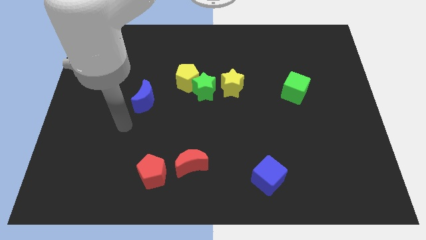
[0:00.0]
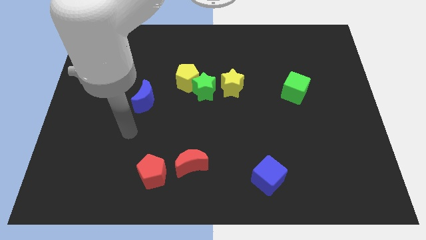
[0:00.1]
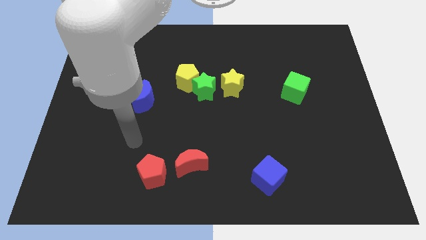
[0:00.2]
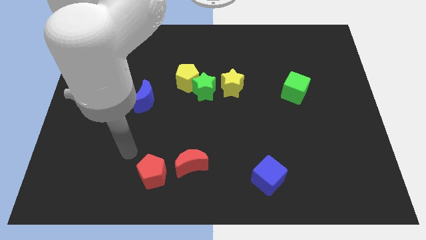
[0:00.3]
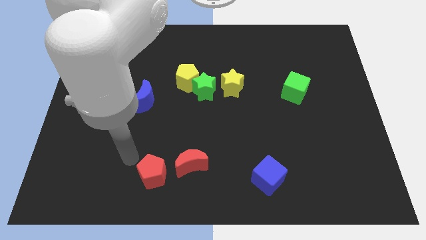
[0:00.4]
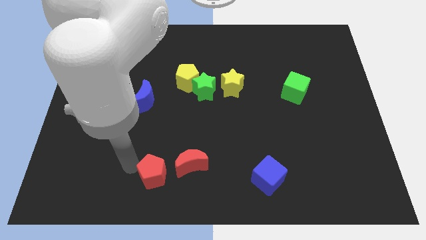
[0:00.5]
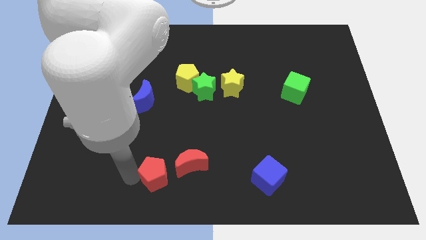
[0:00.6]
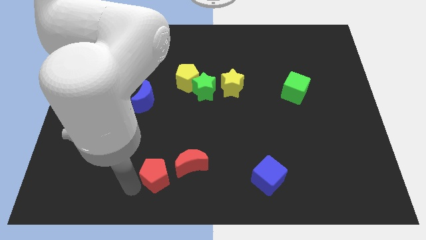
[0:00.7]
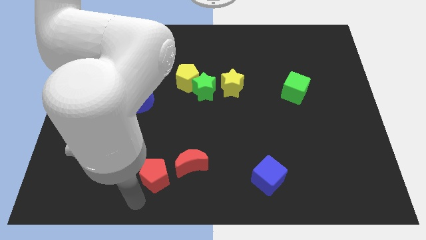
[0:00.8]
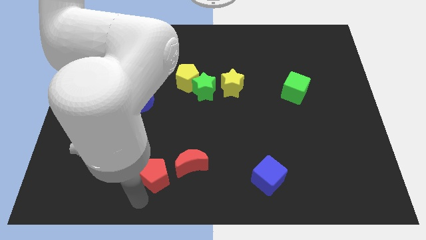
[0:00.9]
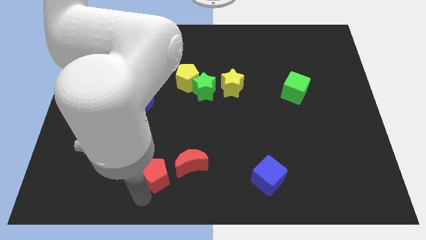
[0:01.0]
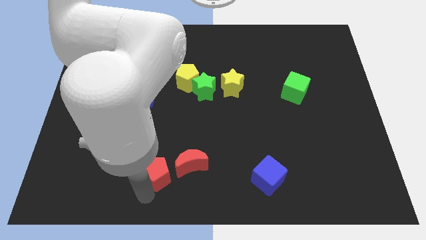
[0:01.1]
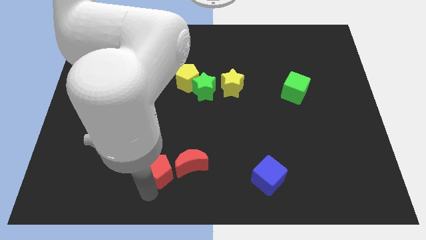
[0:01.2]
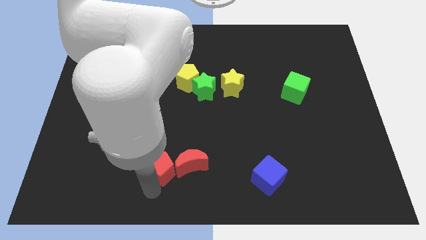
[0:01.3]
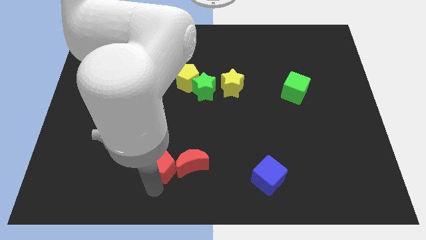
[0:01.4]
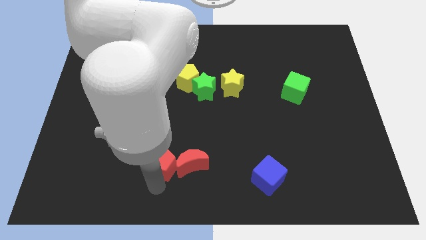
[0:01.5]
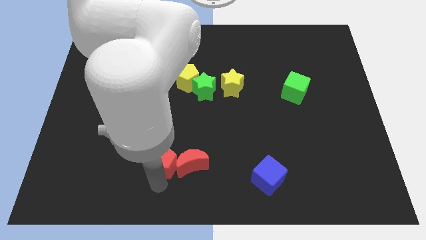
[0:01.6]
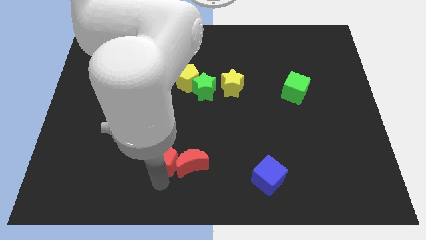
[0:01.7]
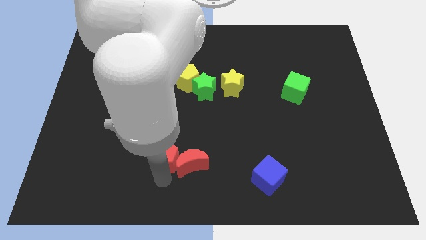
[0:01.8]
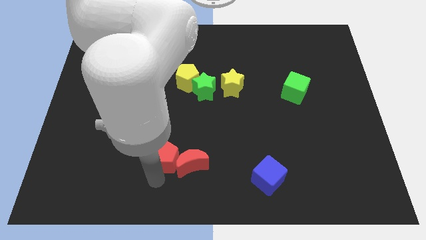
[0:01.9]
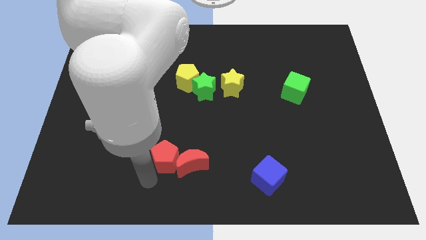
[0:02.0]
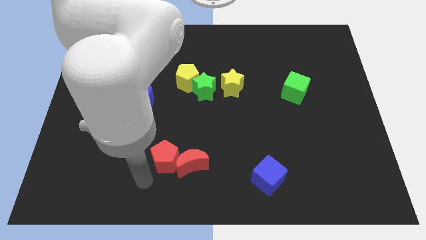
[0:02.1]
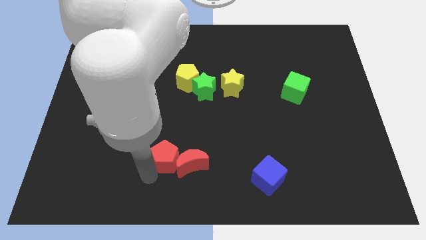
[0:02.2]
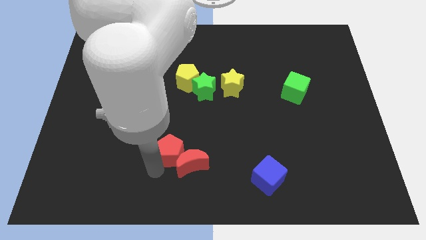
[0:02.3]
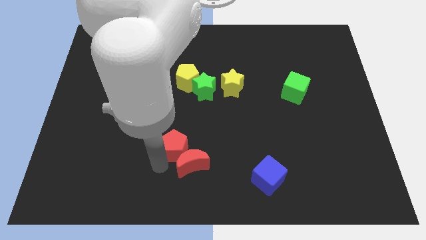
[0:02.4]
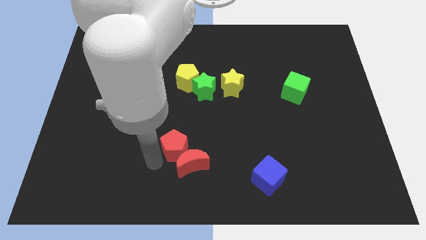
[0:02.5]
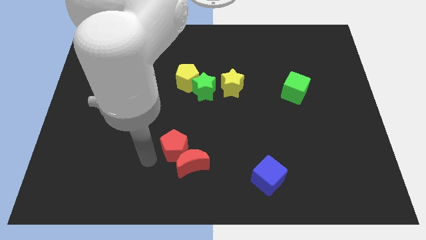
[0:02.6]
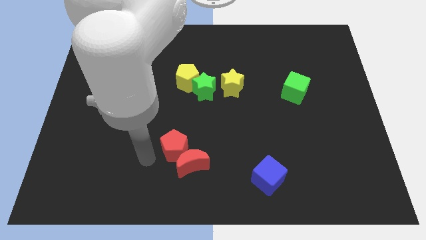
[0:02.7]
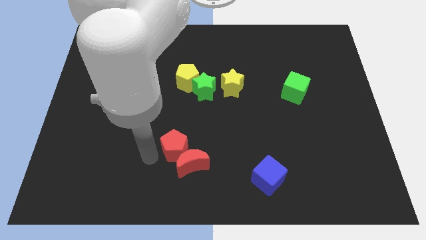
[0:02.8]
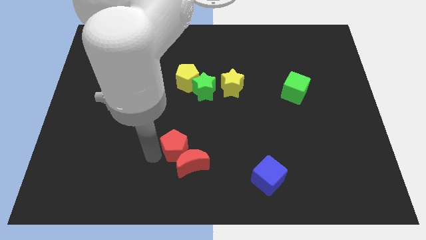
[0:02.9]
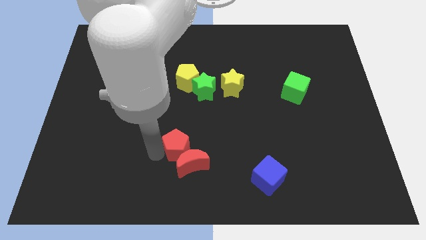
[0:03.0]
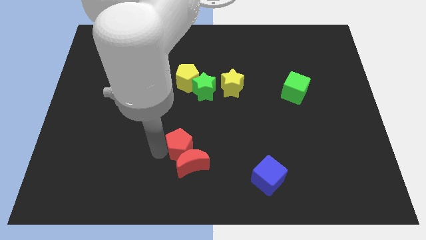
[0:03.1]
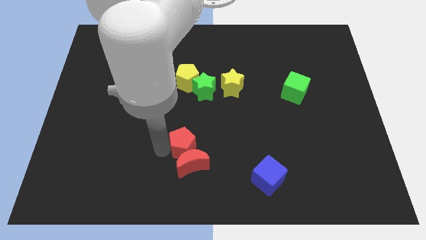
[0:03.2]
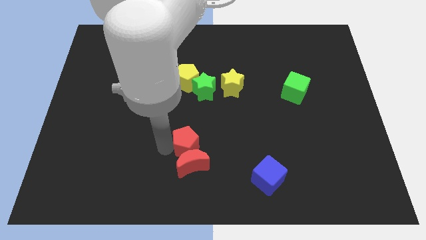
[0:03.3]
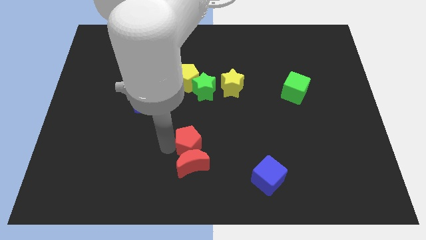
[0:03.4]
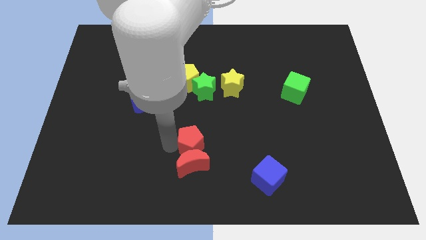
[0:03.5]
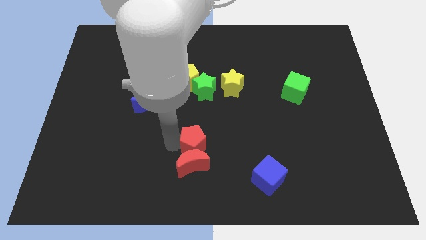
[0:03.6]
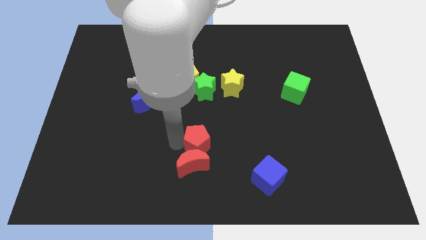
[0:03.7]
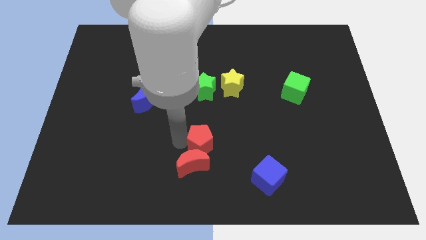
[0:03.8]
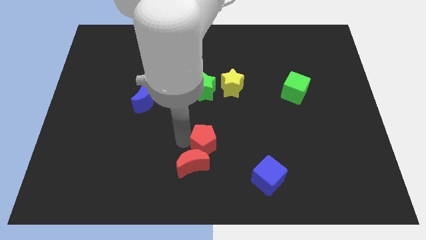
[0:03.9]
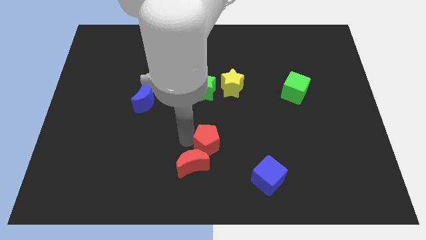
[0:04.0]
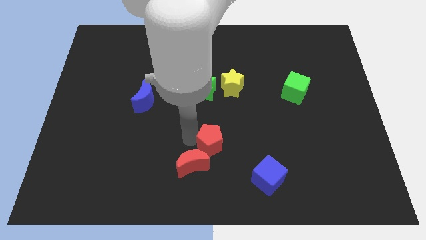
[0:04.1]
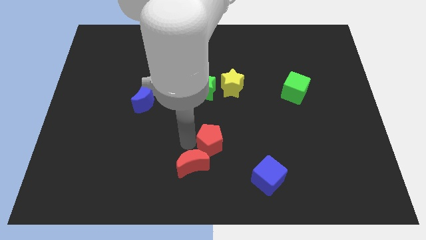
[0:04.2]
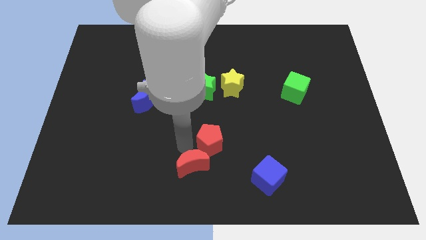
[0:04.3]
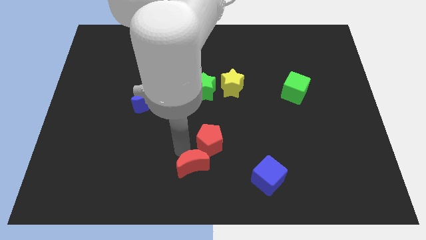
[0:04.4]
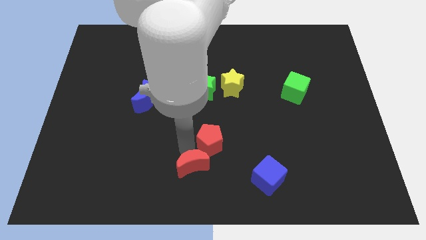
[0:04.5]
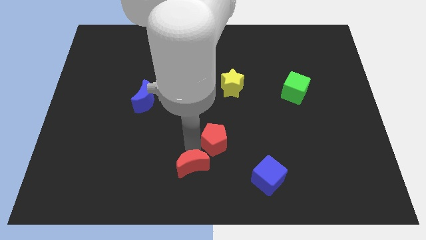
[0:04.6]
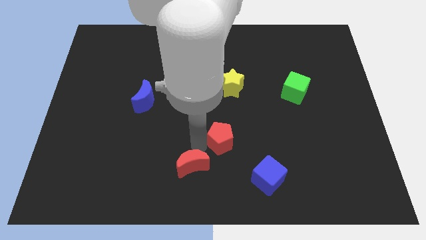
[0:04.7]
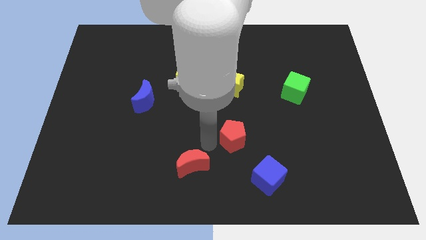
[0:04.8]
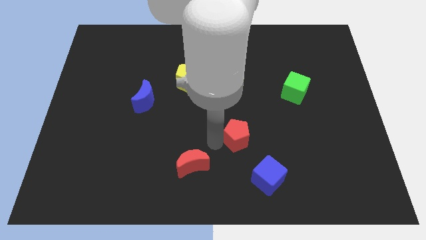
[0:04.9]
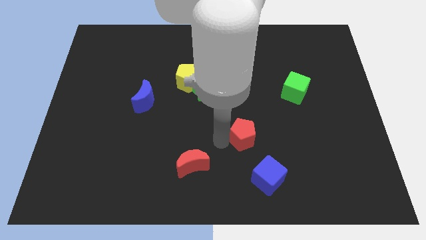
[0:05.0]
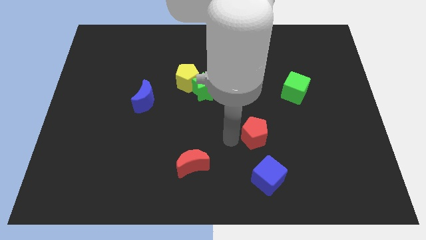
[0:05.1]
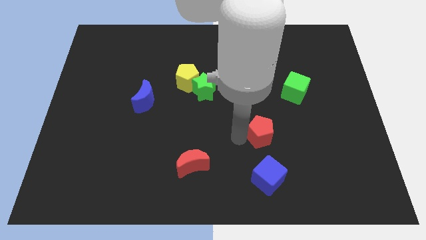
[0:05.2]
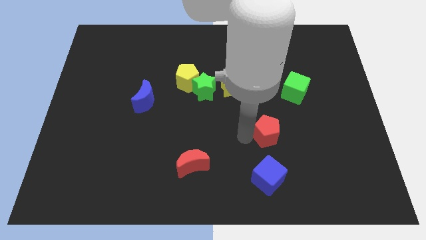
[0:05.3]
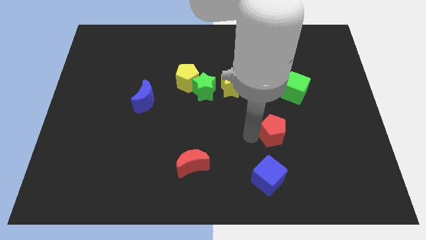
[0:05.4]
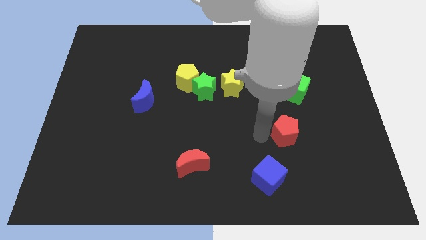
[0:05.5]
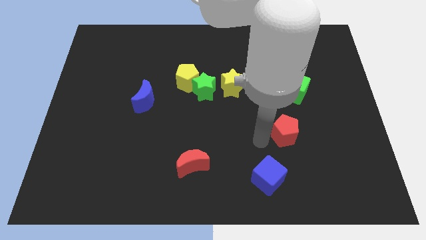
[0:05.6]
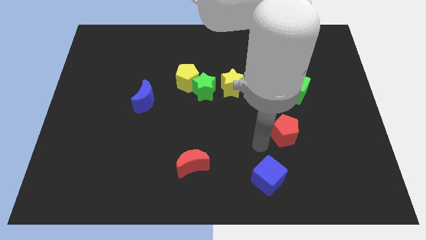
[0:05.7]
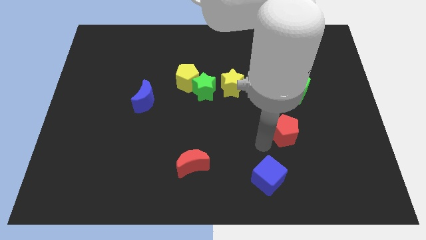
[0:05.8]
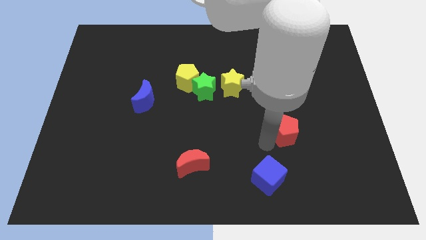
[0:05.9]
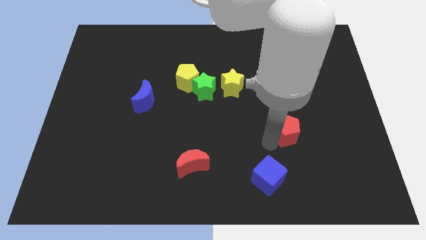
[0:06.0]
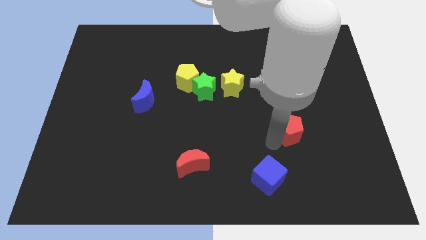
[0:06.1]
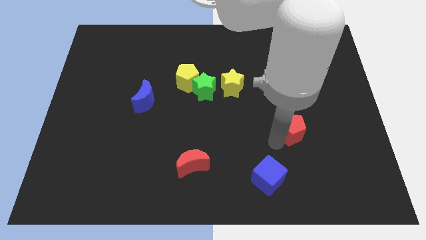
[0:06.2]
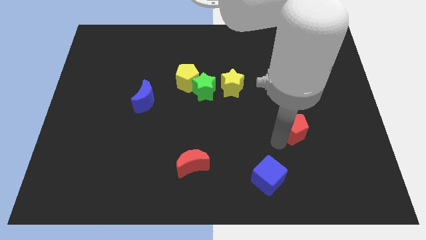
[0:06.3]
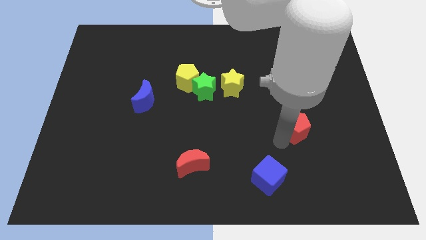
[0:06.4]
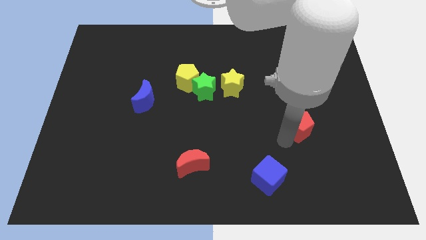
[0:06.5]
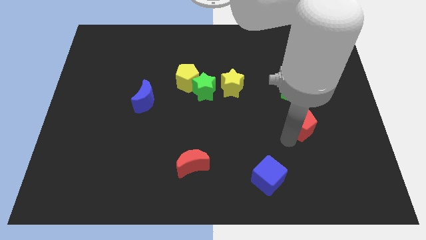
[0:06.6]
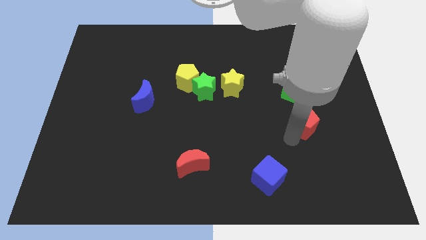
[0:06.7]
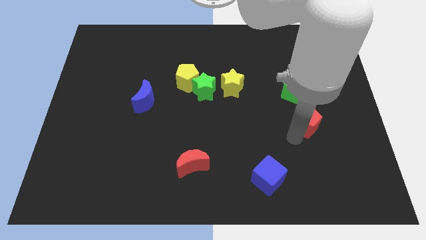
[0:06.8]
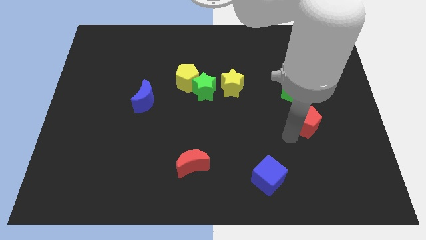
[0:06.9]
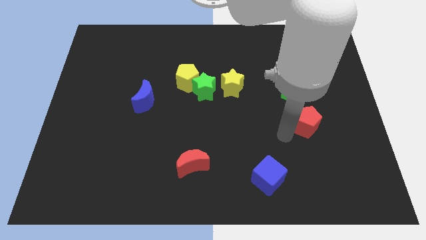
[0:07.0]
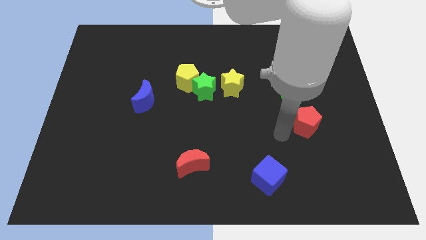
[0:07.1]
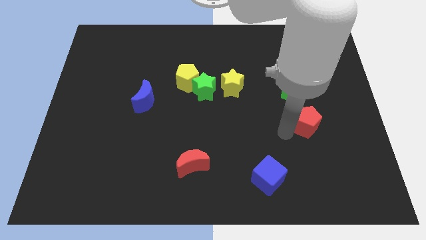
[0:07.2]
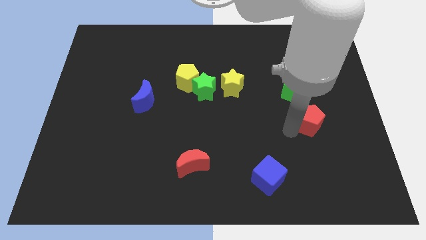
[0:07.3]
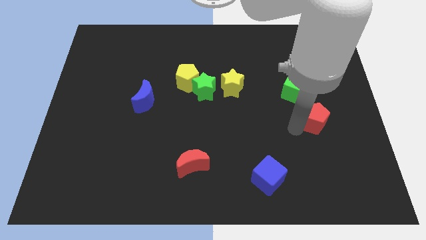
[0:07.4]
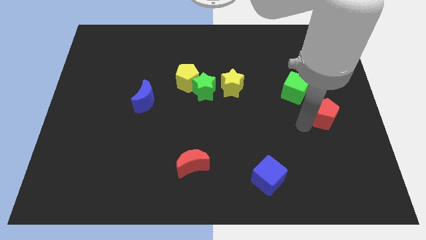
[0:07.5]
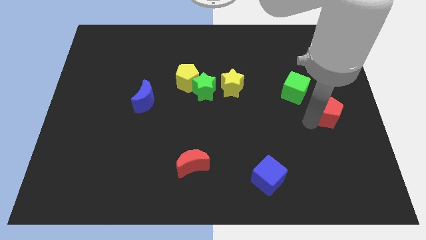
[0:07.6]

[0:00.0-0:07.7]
push the red pentagon to the right side
